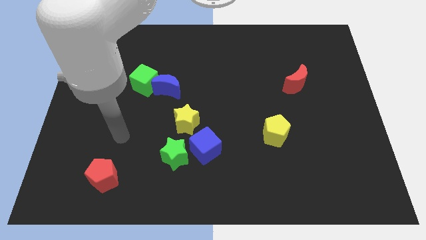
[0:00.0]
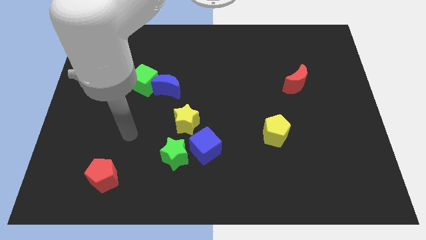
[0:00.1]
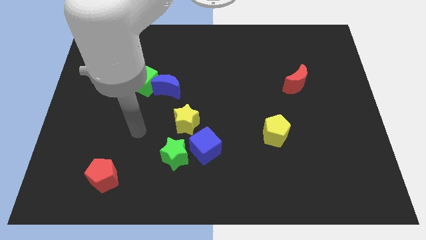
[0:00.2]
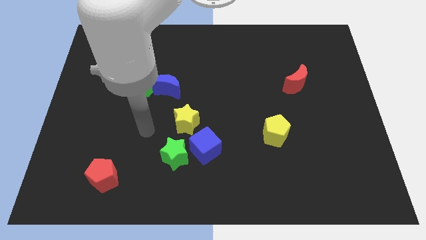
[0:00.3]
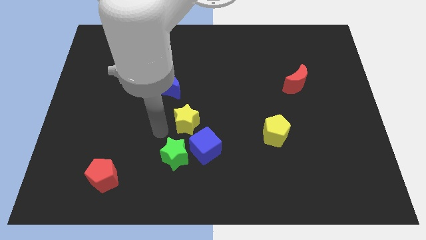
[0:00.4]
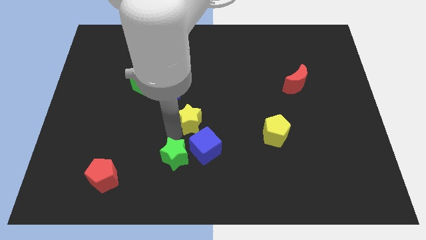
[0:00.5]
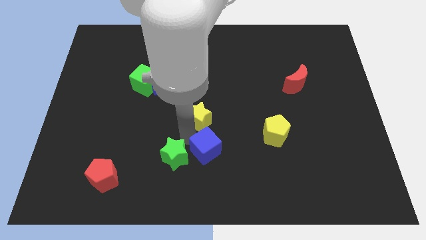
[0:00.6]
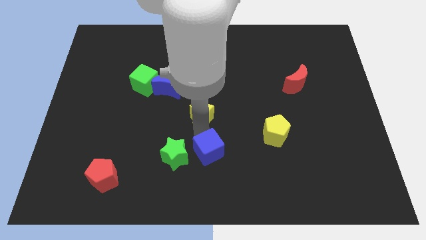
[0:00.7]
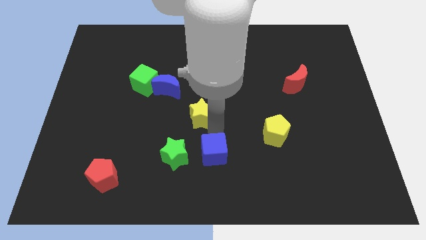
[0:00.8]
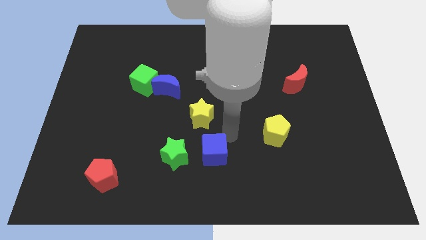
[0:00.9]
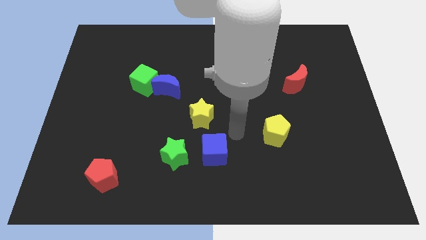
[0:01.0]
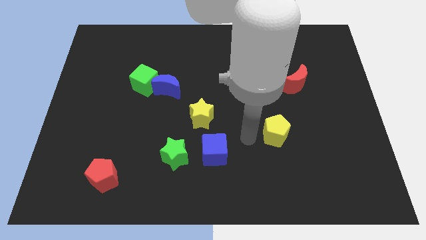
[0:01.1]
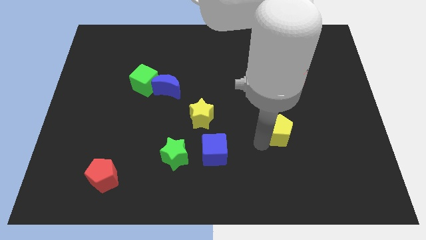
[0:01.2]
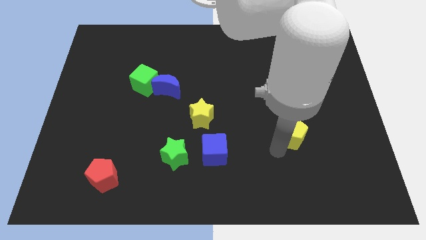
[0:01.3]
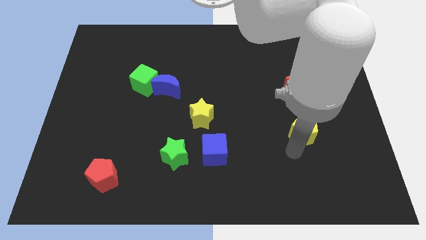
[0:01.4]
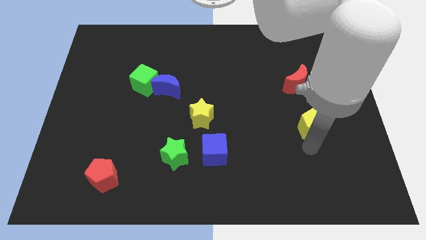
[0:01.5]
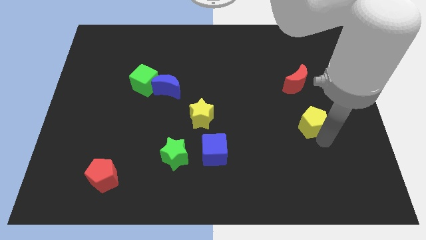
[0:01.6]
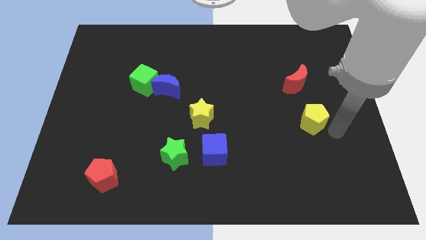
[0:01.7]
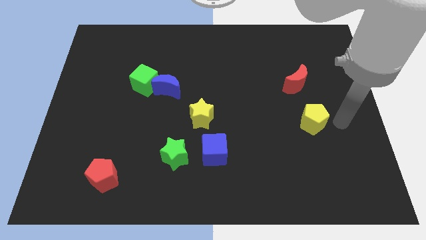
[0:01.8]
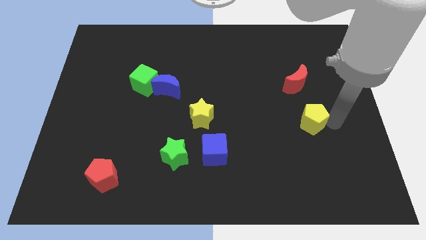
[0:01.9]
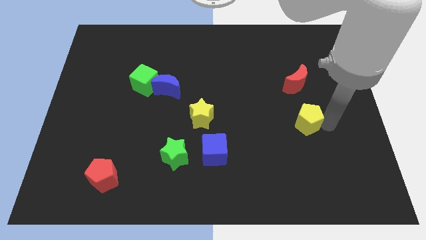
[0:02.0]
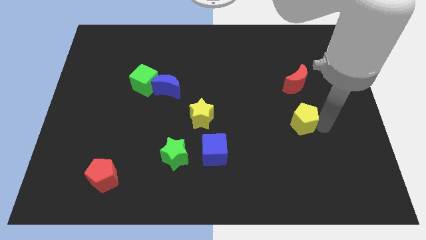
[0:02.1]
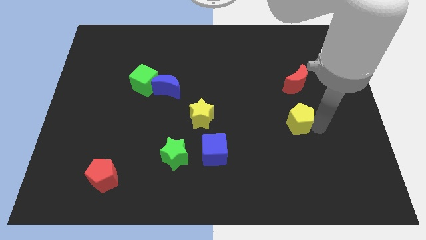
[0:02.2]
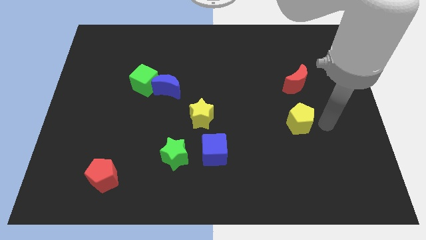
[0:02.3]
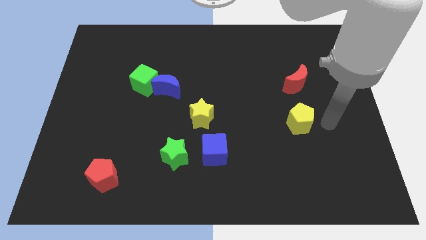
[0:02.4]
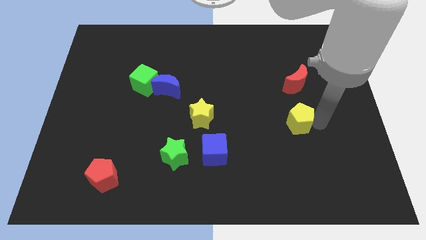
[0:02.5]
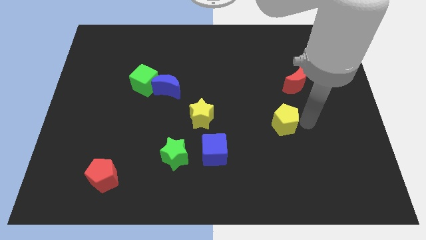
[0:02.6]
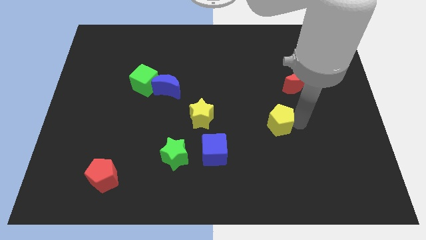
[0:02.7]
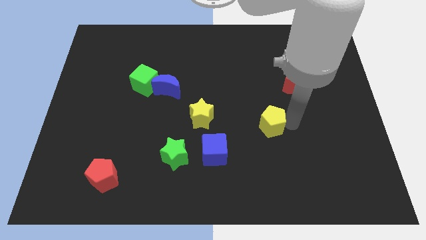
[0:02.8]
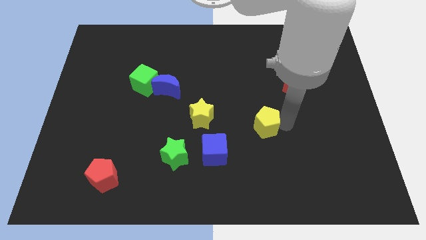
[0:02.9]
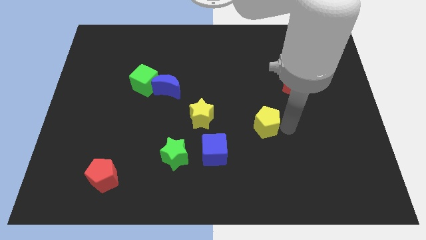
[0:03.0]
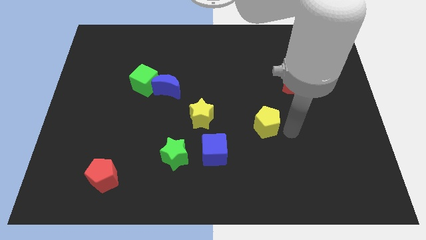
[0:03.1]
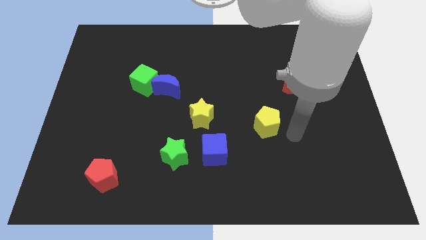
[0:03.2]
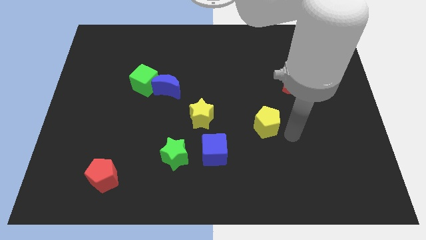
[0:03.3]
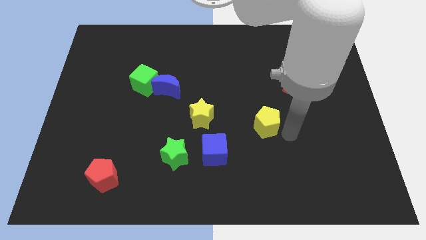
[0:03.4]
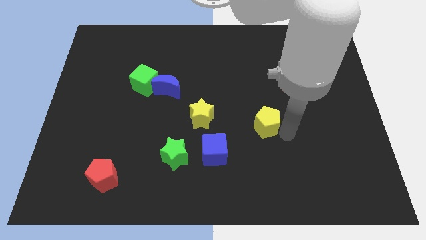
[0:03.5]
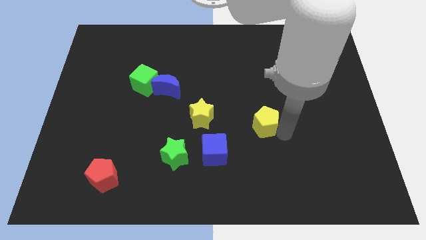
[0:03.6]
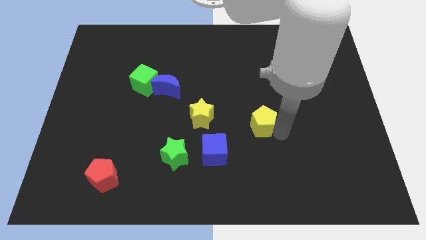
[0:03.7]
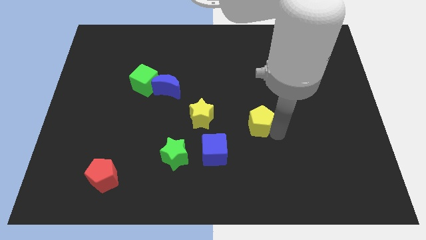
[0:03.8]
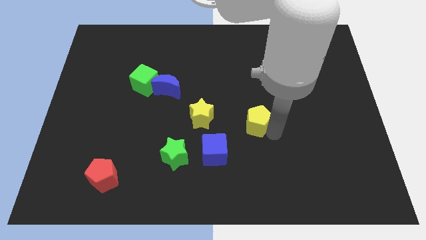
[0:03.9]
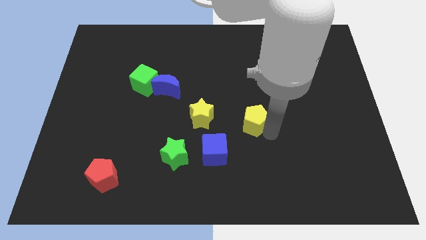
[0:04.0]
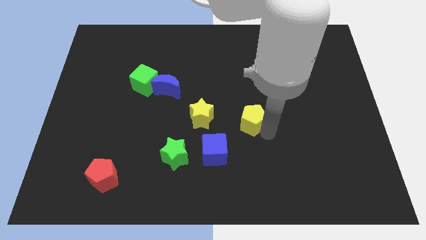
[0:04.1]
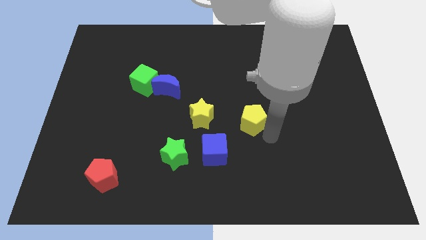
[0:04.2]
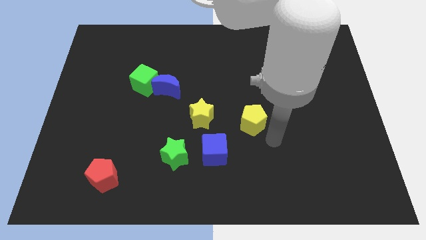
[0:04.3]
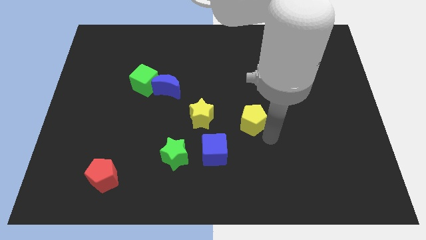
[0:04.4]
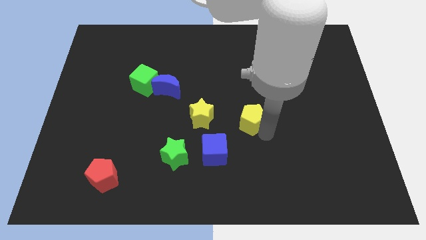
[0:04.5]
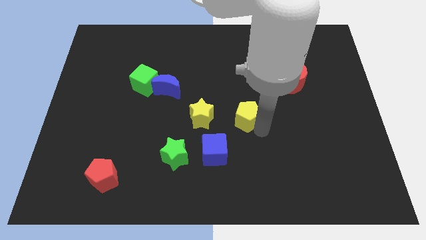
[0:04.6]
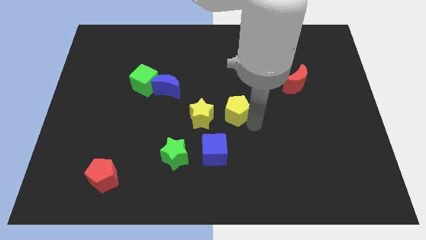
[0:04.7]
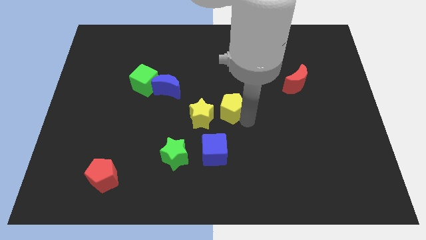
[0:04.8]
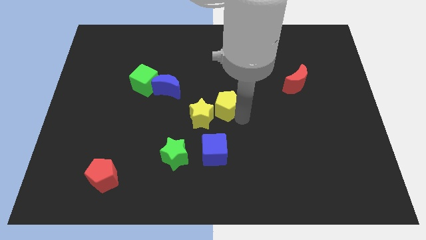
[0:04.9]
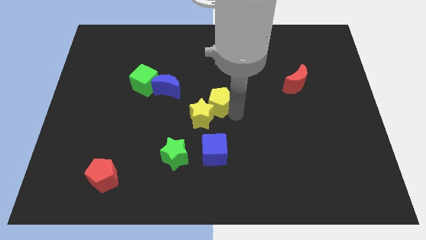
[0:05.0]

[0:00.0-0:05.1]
push the yellow pentagon to the top of the yellow star

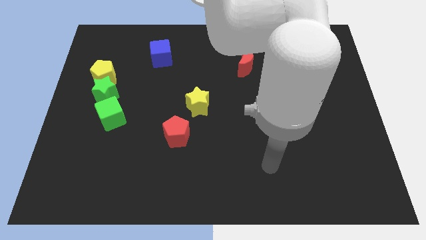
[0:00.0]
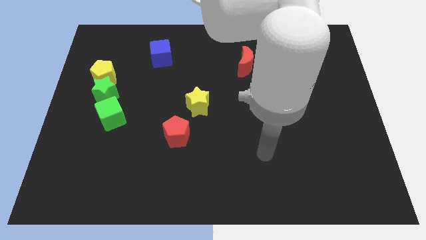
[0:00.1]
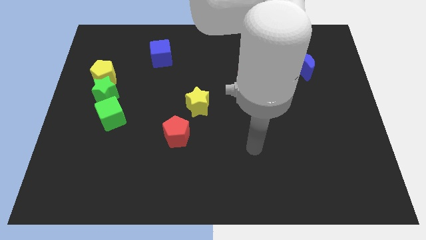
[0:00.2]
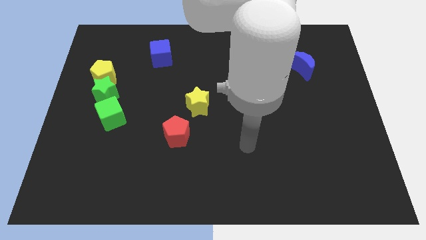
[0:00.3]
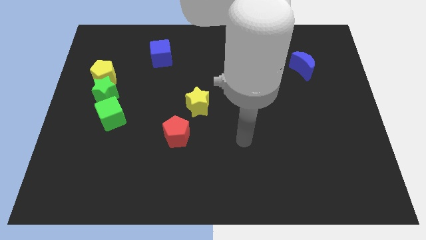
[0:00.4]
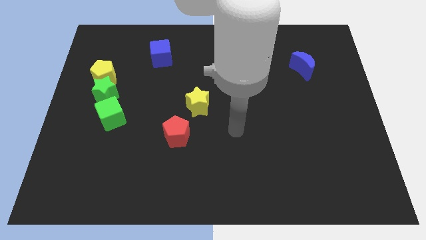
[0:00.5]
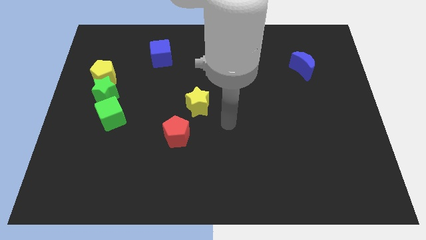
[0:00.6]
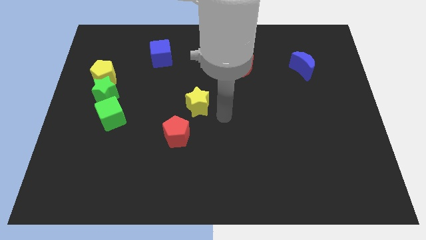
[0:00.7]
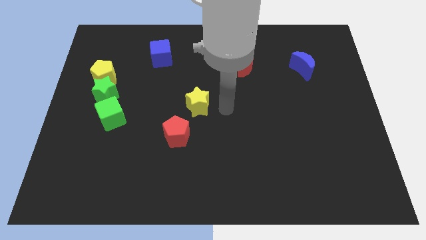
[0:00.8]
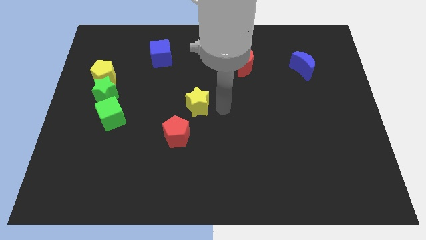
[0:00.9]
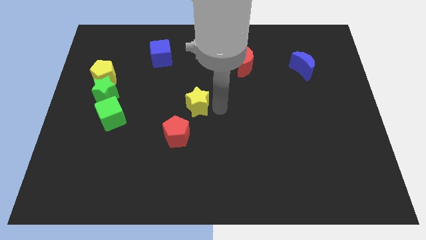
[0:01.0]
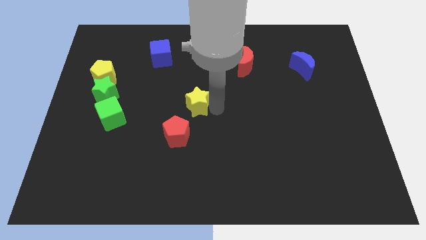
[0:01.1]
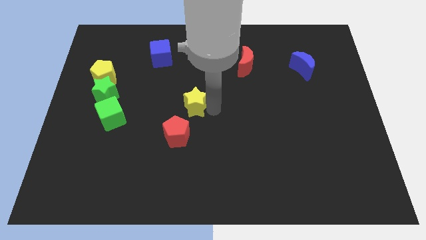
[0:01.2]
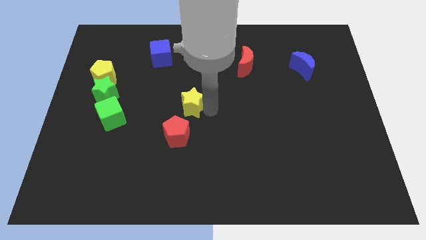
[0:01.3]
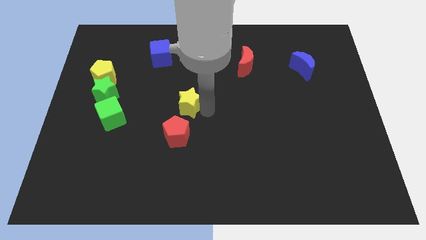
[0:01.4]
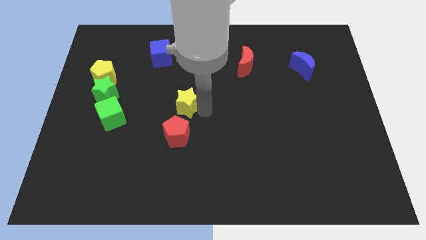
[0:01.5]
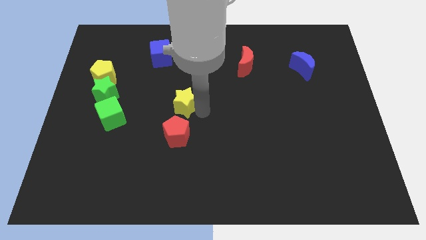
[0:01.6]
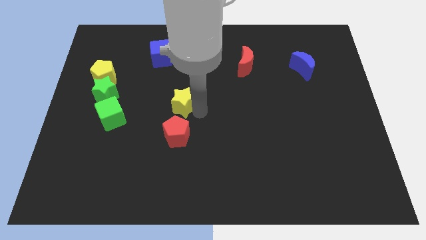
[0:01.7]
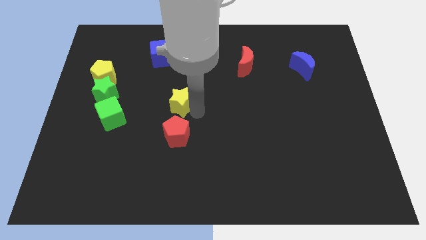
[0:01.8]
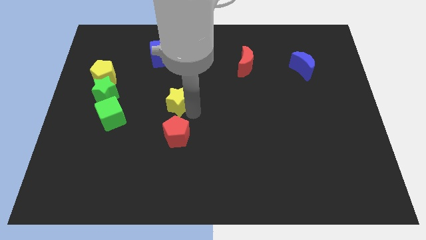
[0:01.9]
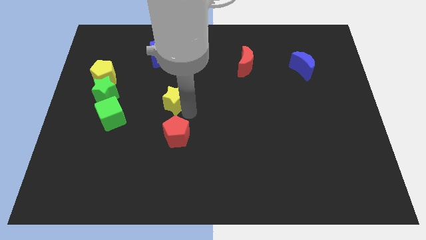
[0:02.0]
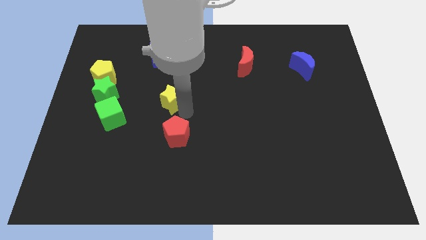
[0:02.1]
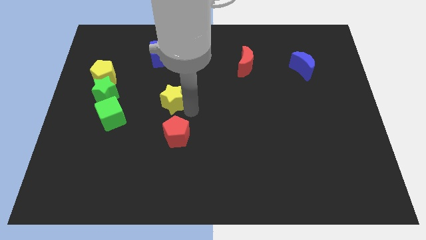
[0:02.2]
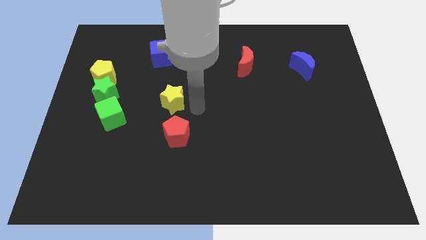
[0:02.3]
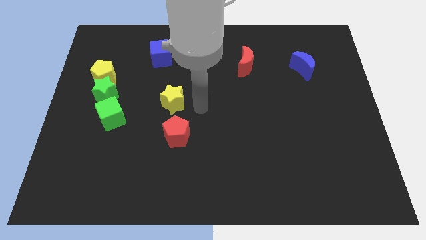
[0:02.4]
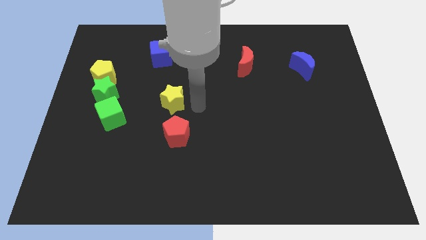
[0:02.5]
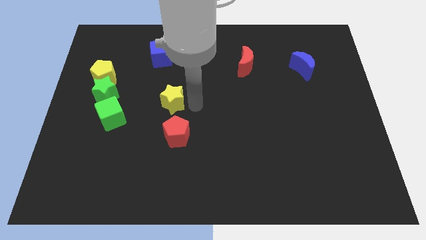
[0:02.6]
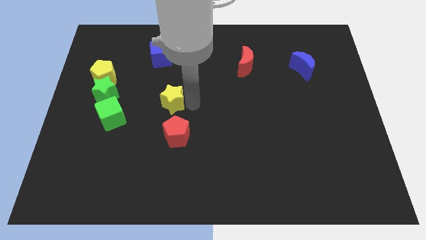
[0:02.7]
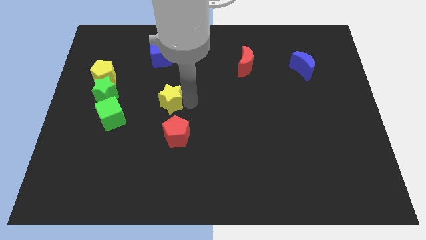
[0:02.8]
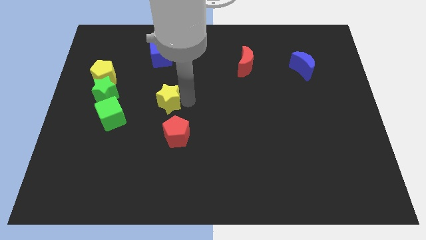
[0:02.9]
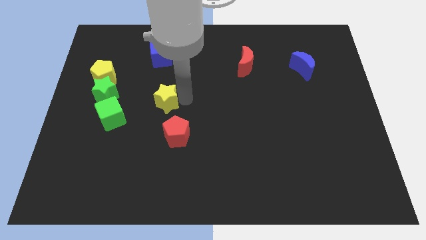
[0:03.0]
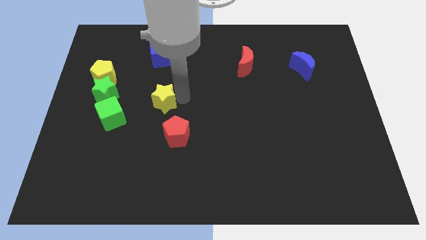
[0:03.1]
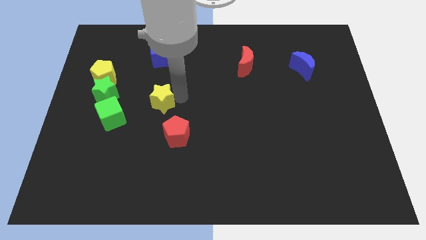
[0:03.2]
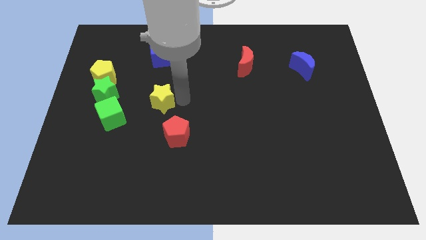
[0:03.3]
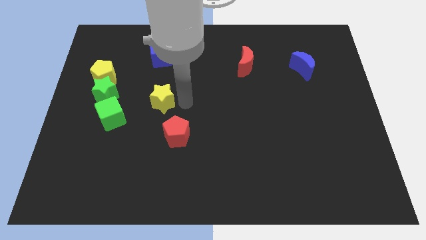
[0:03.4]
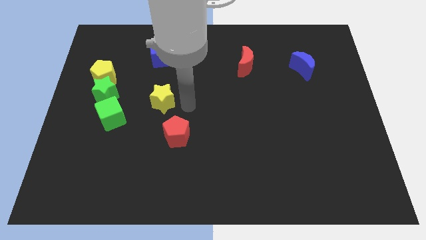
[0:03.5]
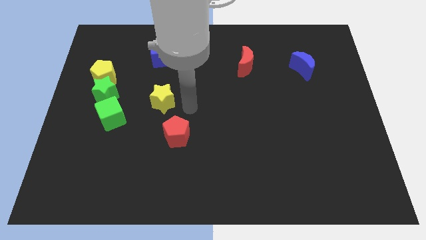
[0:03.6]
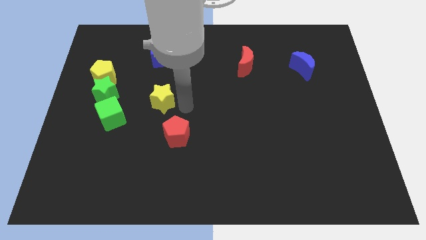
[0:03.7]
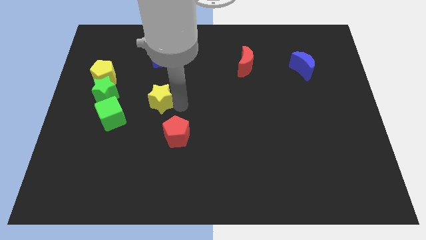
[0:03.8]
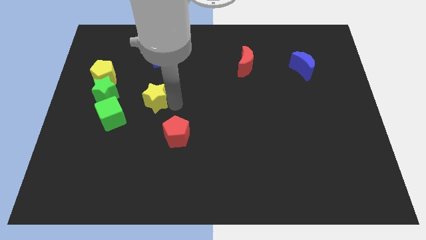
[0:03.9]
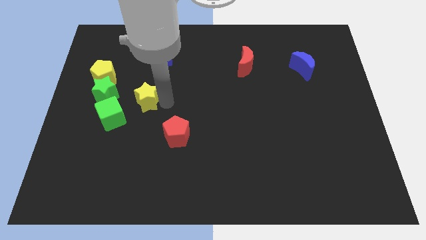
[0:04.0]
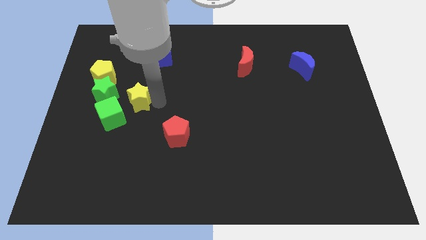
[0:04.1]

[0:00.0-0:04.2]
push the yellow star to the bottom right side of the yellow pentagon
